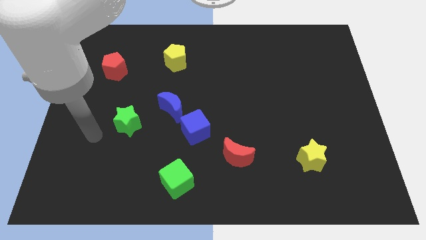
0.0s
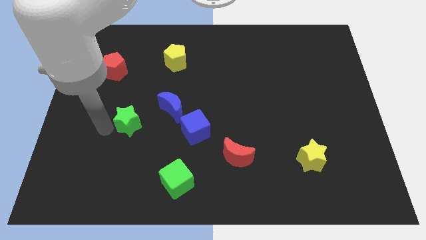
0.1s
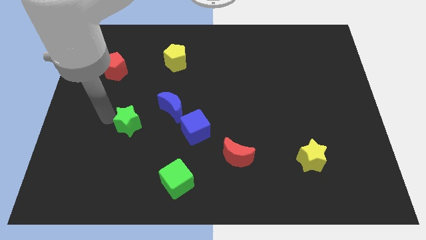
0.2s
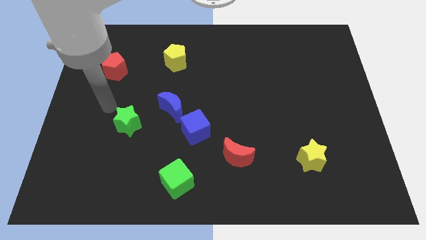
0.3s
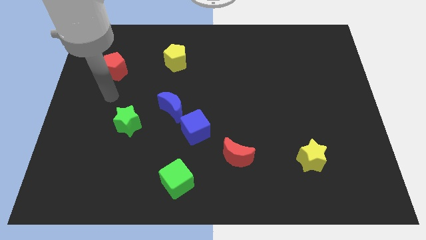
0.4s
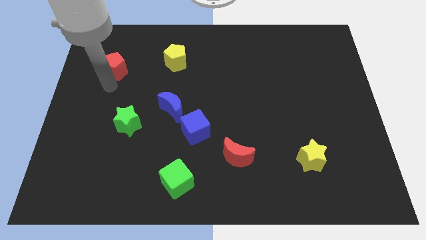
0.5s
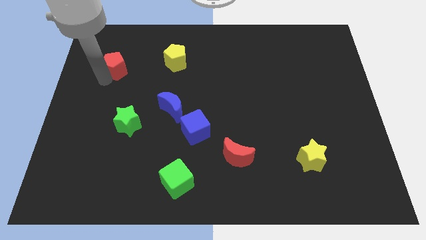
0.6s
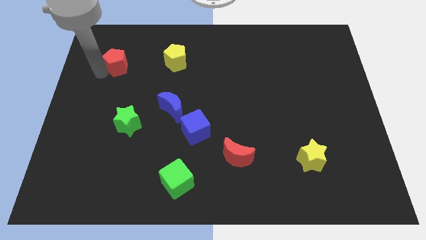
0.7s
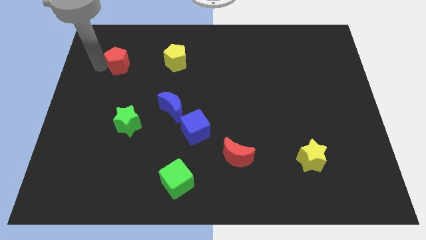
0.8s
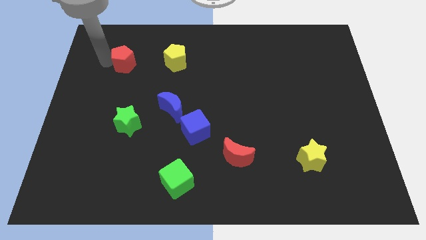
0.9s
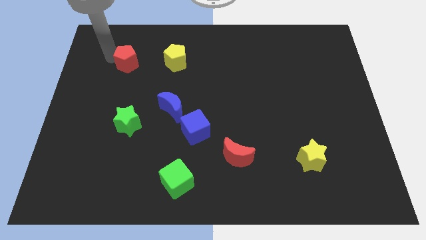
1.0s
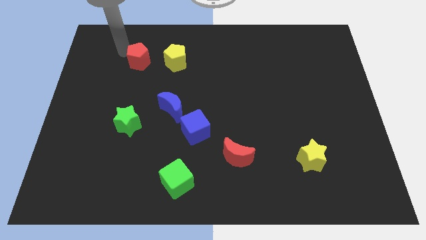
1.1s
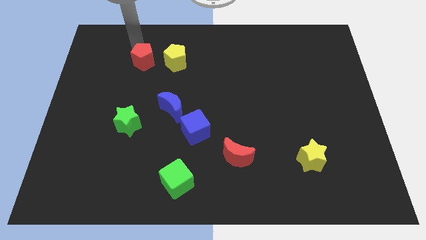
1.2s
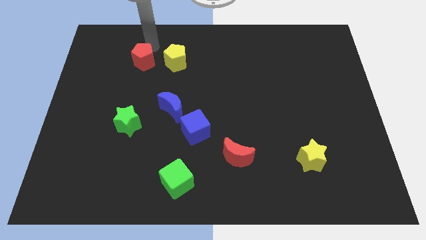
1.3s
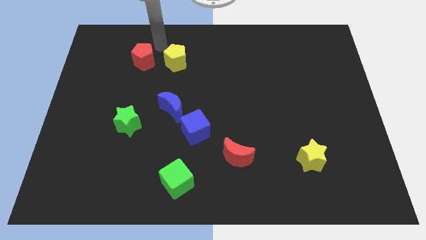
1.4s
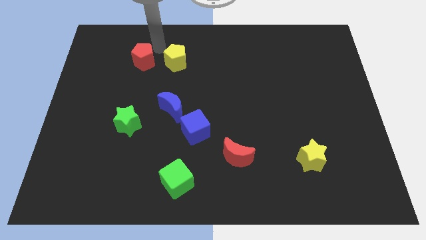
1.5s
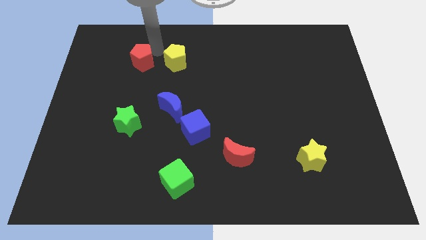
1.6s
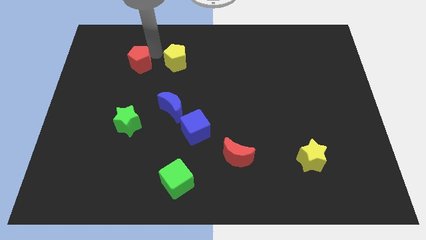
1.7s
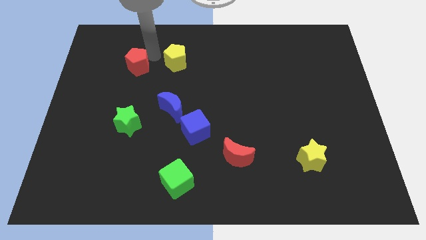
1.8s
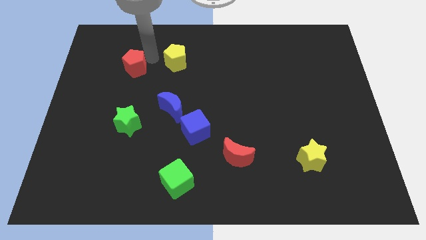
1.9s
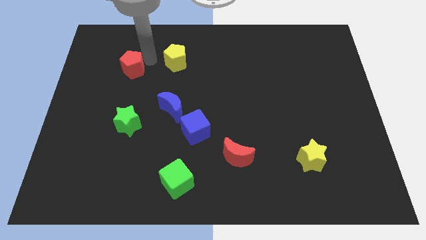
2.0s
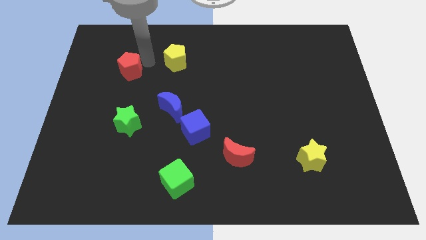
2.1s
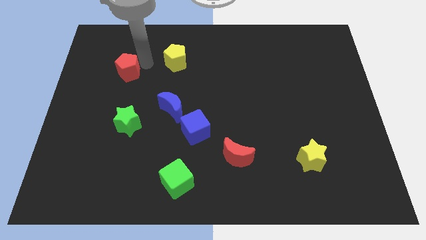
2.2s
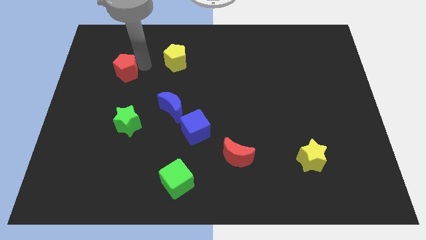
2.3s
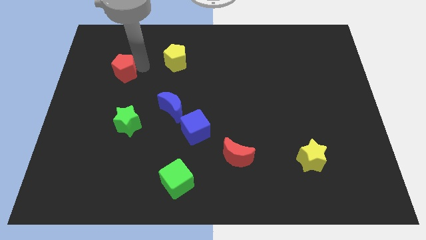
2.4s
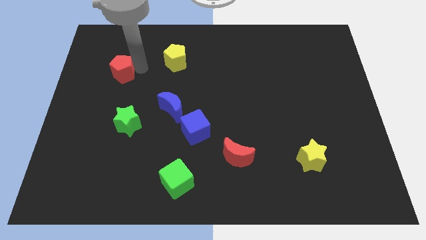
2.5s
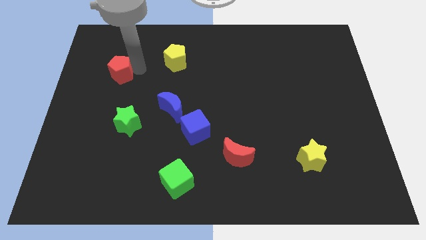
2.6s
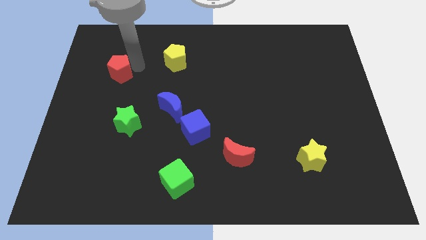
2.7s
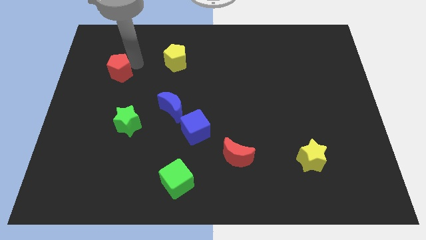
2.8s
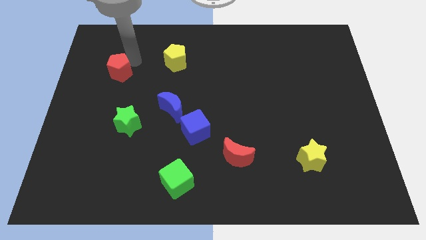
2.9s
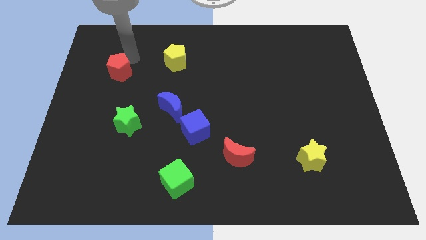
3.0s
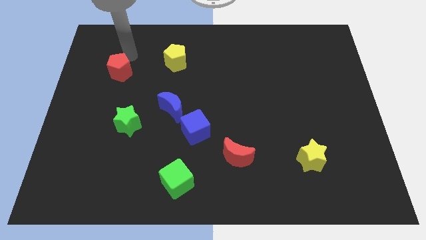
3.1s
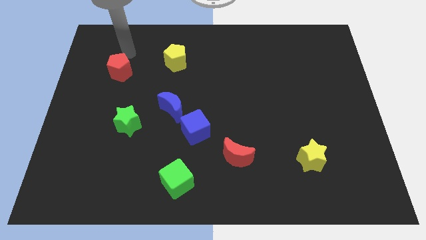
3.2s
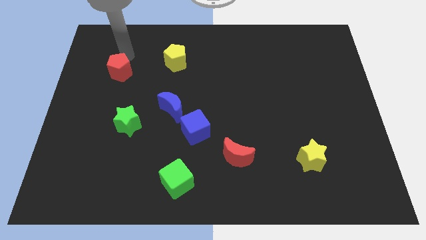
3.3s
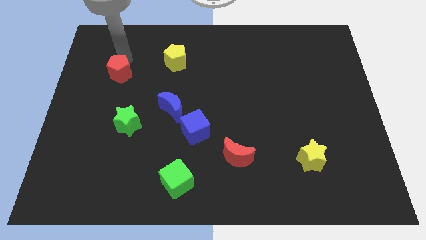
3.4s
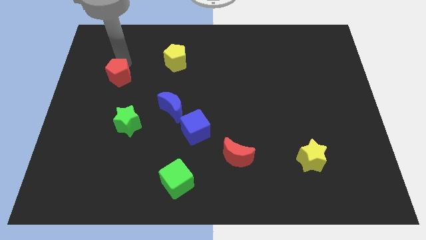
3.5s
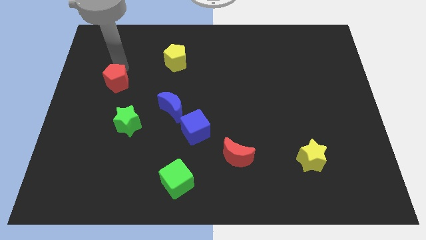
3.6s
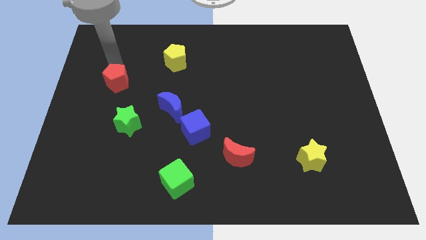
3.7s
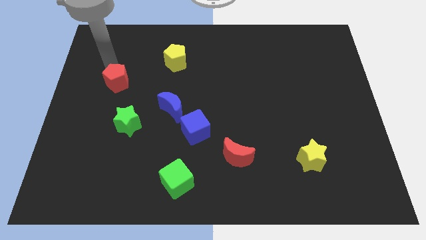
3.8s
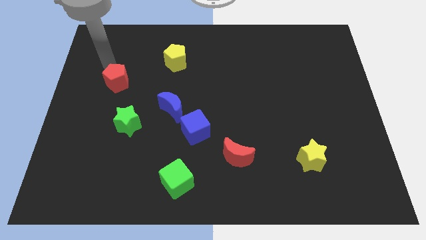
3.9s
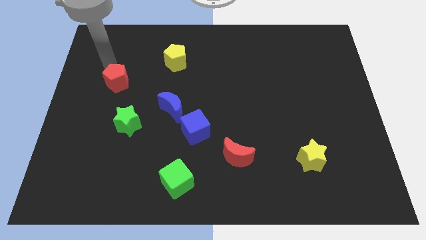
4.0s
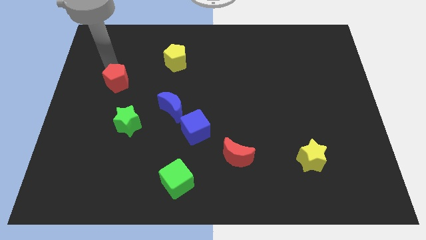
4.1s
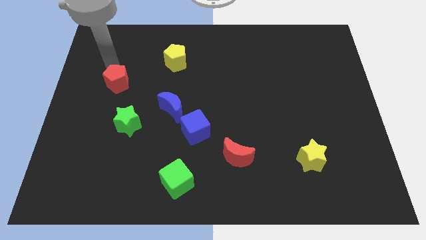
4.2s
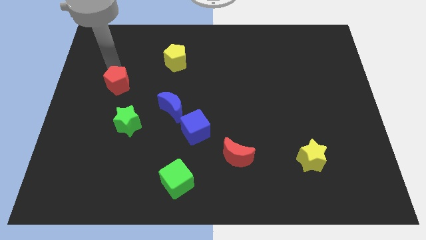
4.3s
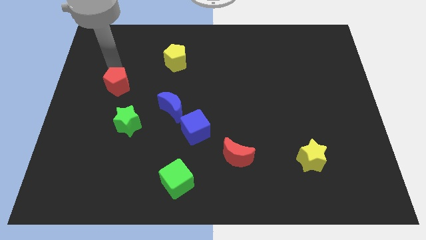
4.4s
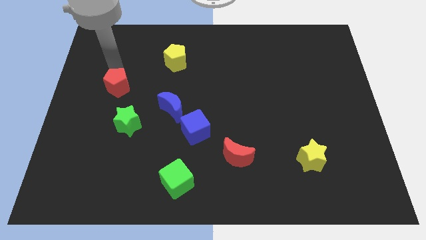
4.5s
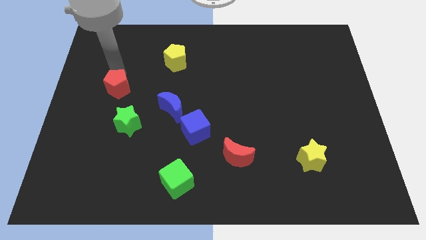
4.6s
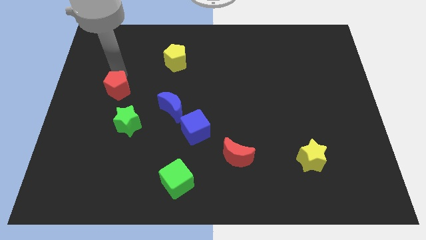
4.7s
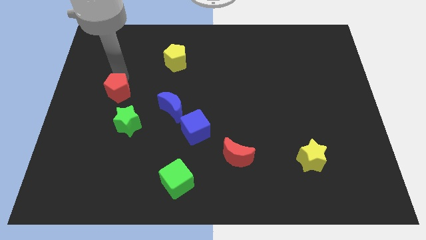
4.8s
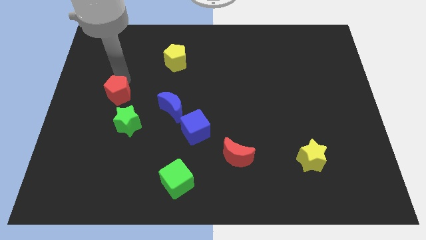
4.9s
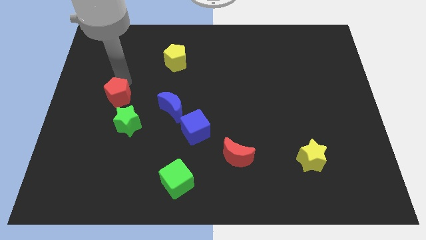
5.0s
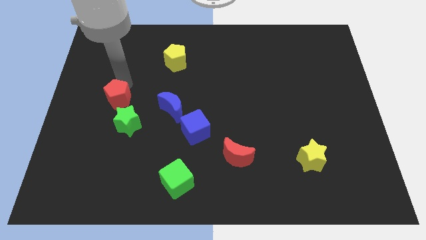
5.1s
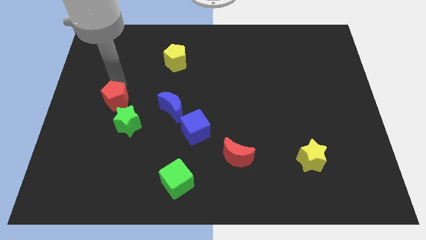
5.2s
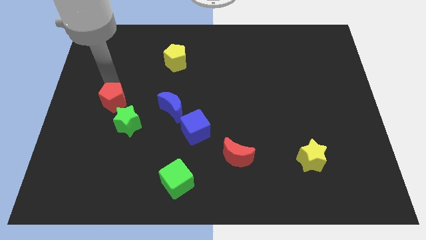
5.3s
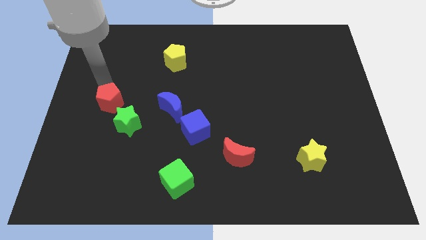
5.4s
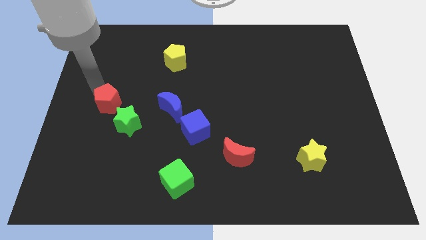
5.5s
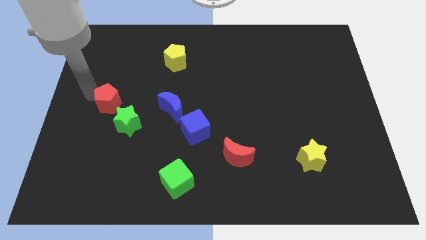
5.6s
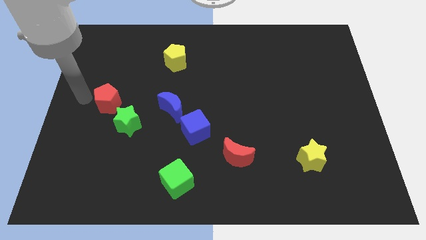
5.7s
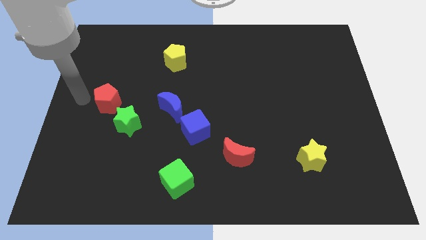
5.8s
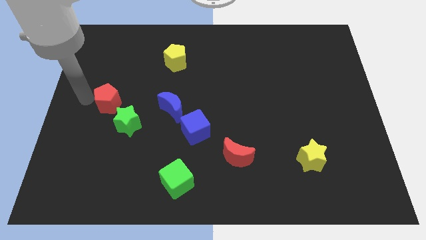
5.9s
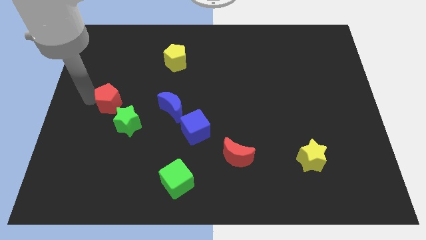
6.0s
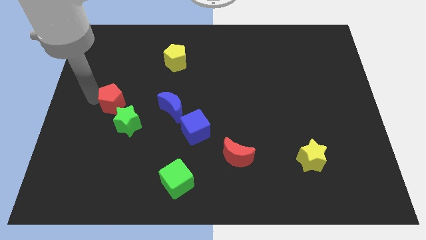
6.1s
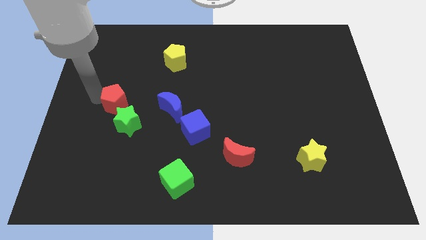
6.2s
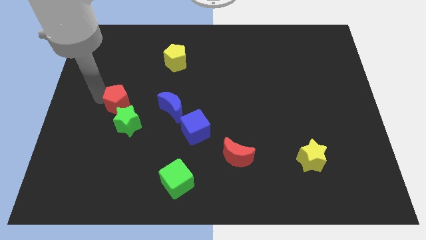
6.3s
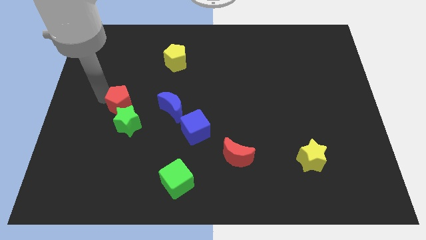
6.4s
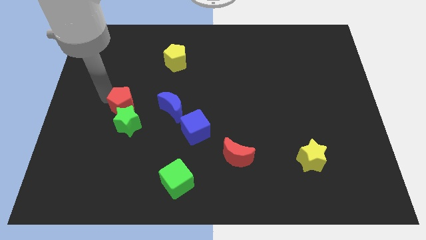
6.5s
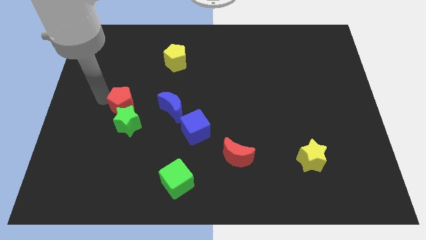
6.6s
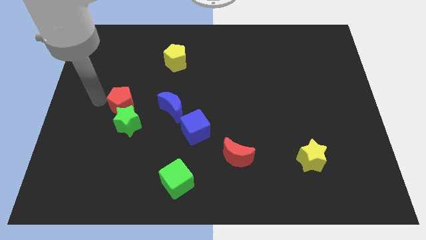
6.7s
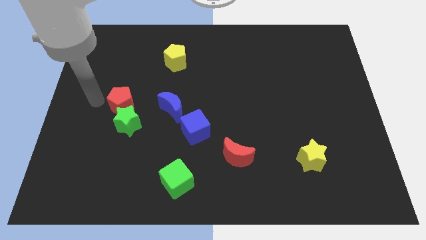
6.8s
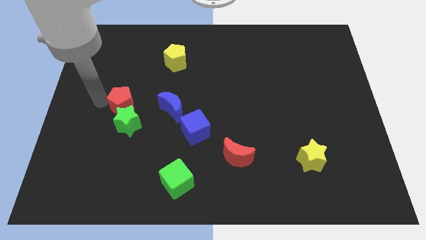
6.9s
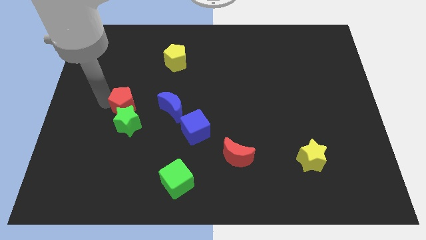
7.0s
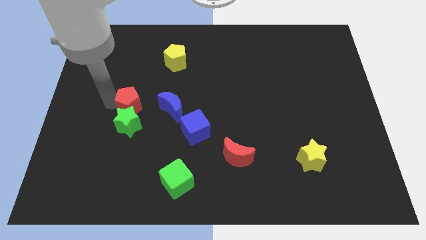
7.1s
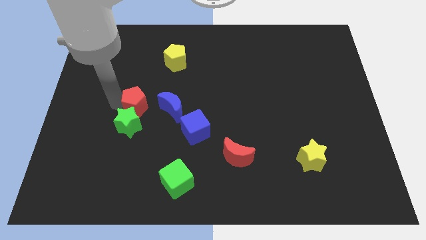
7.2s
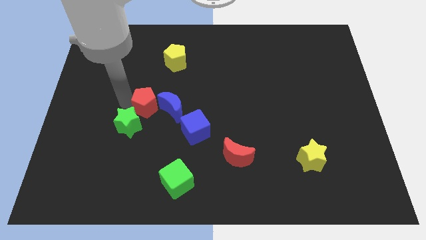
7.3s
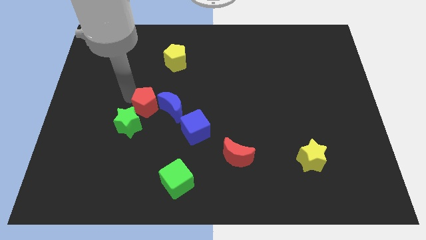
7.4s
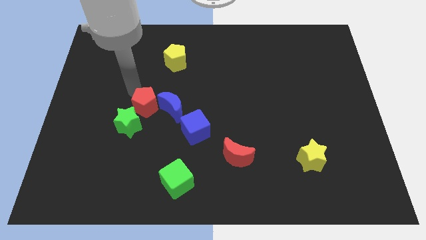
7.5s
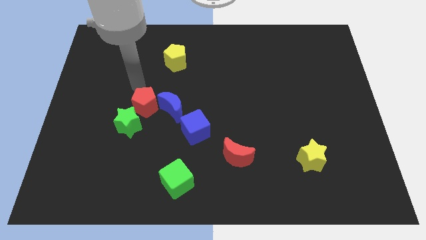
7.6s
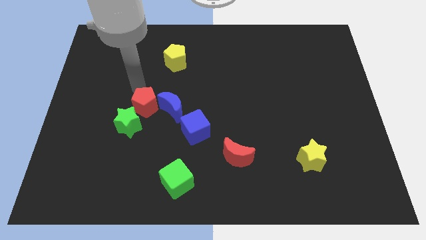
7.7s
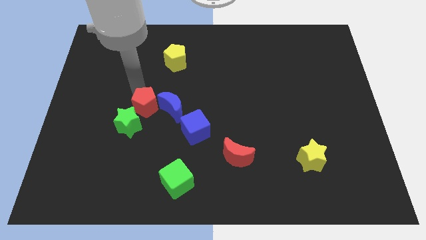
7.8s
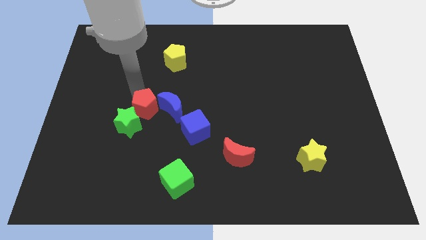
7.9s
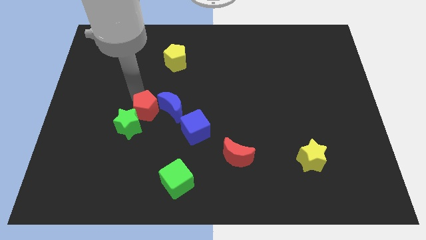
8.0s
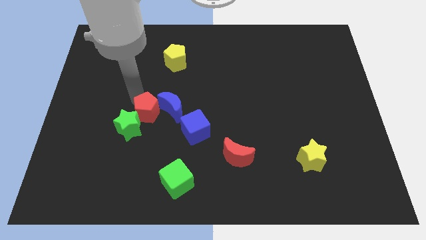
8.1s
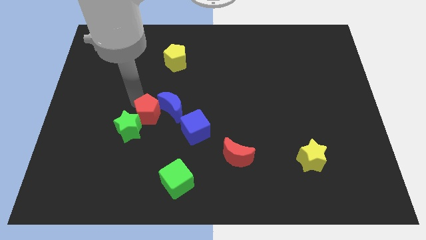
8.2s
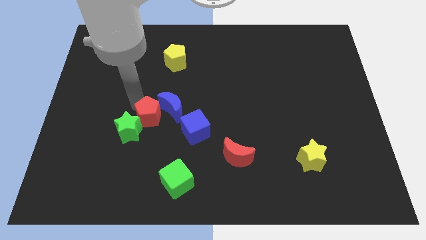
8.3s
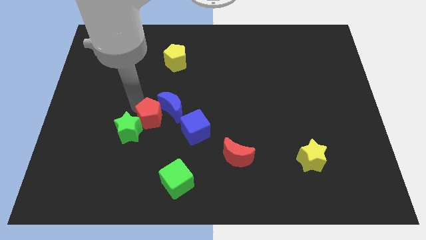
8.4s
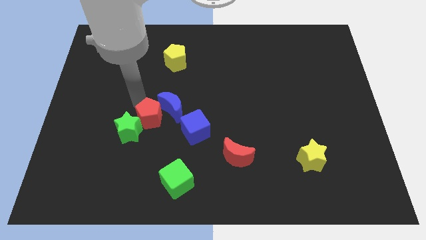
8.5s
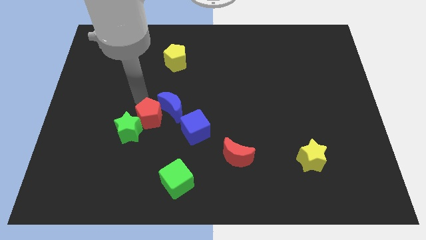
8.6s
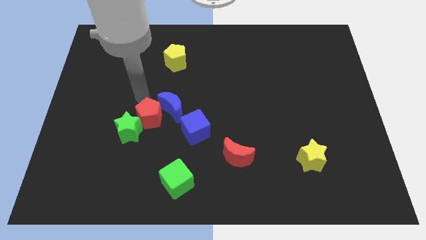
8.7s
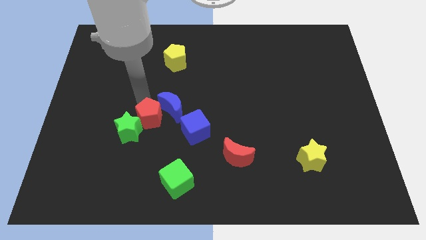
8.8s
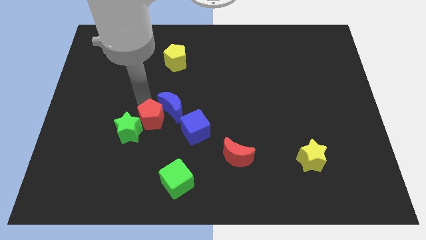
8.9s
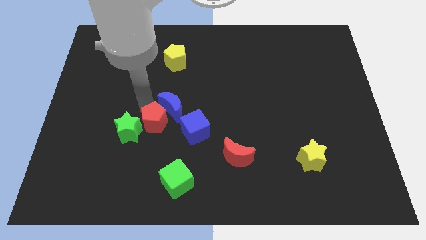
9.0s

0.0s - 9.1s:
move the red pentagon to the bottom of the blue moon
